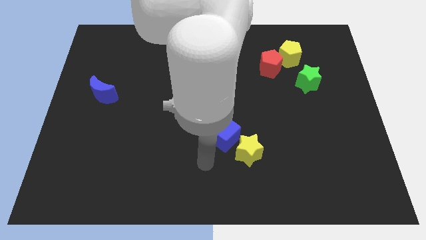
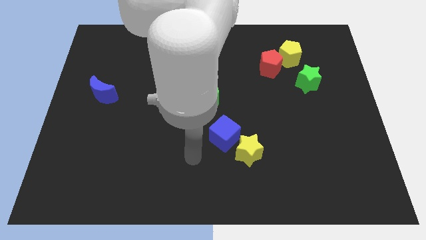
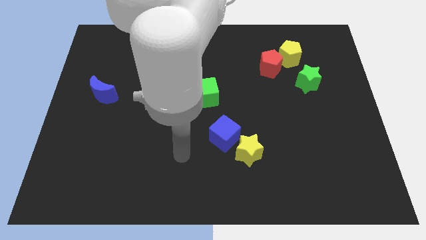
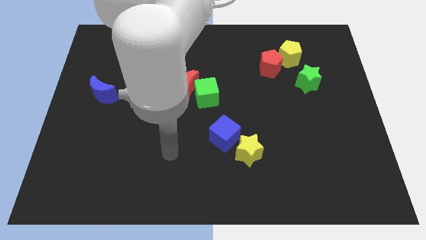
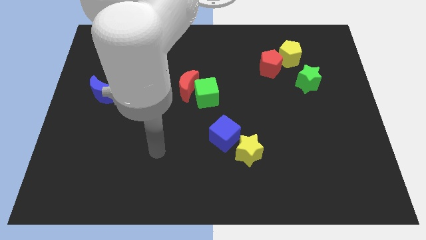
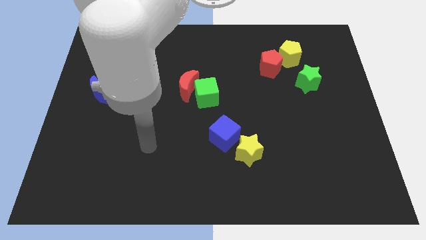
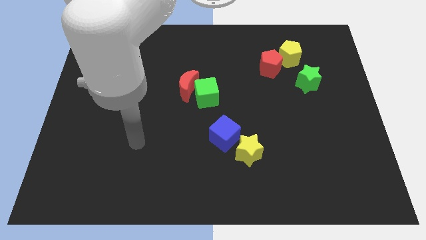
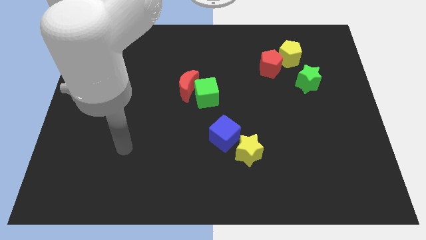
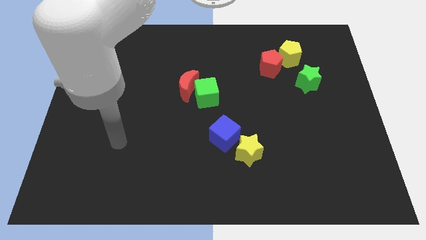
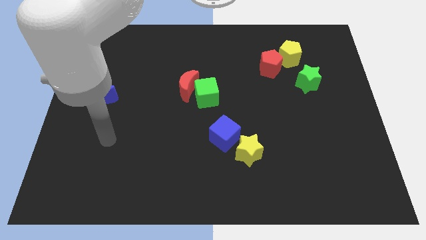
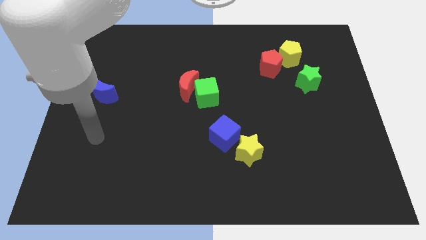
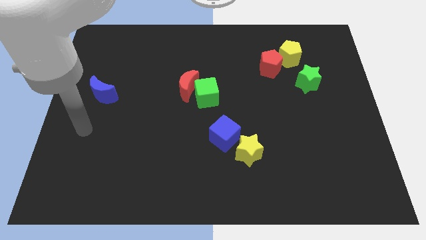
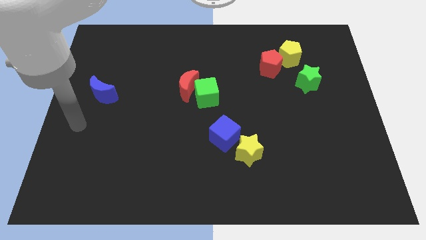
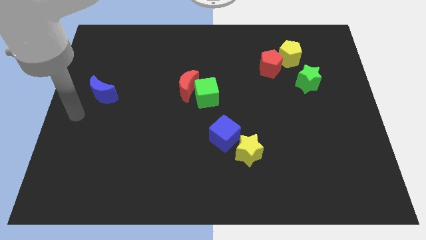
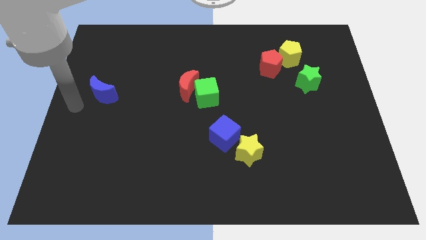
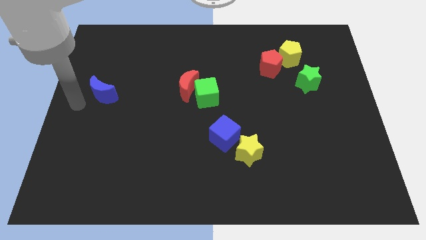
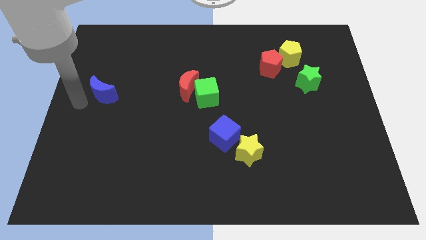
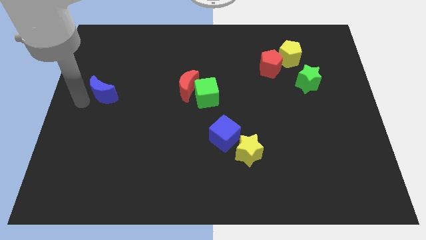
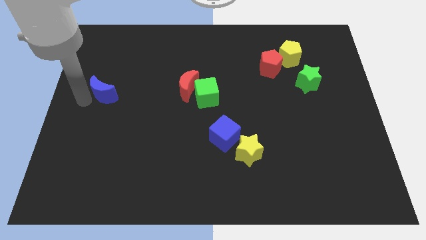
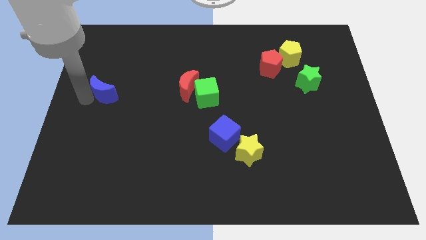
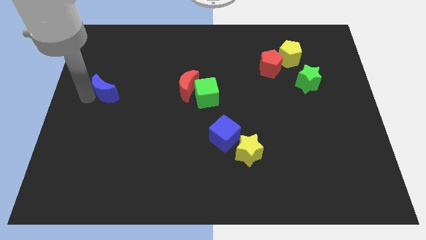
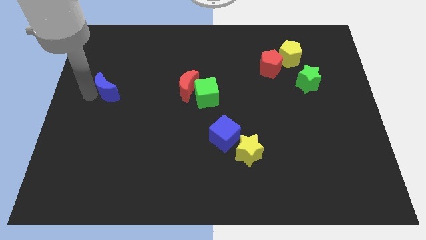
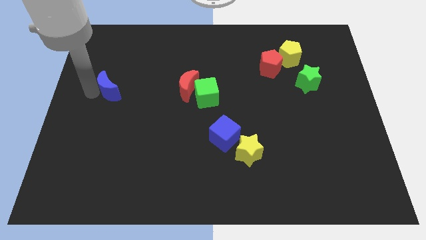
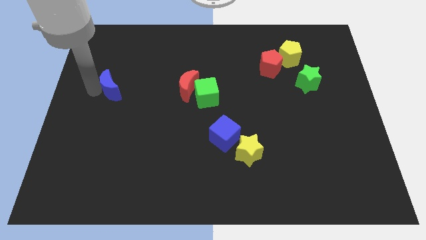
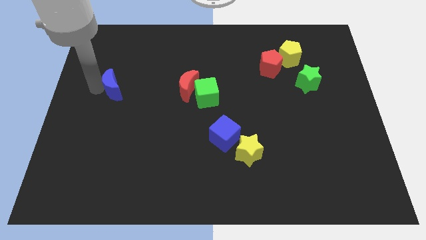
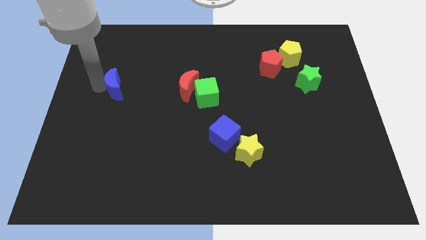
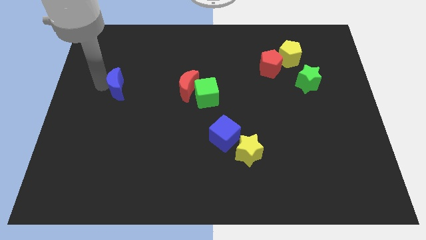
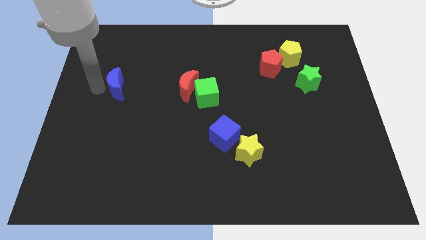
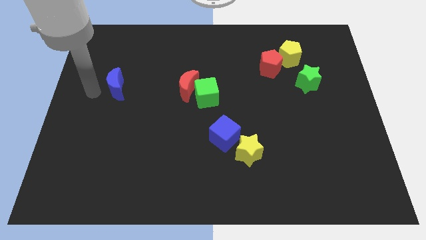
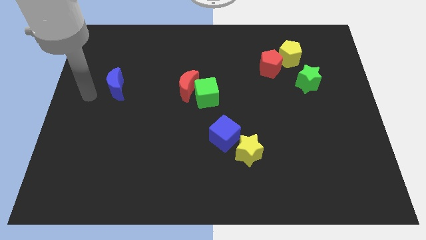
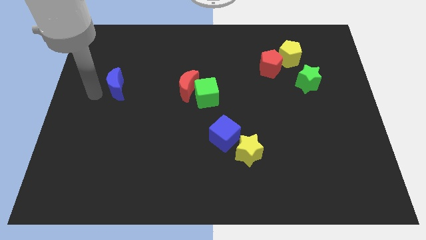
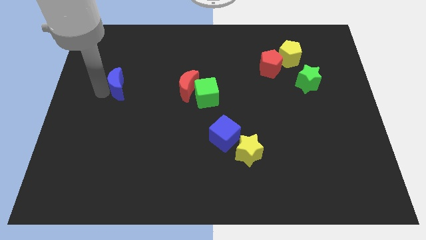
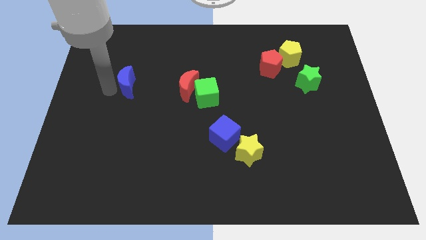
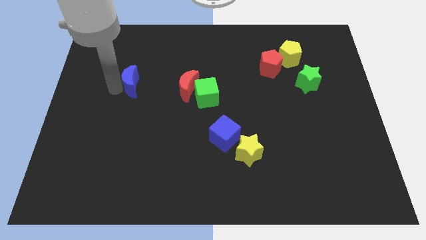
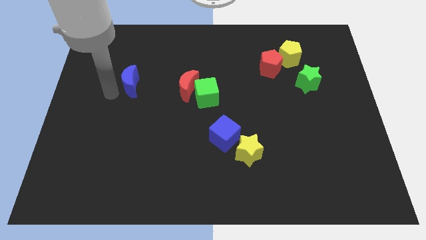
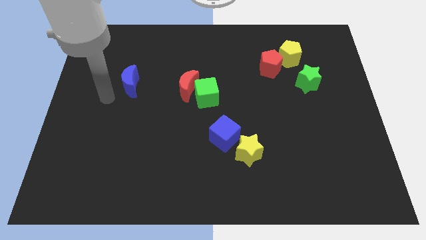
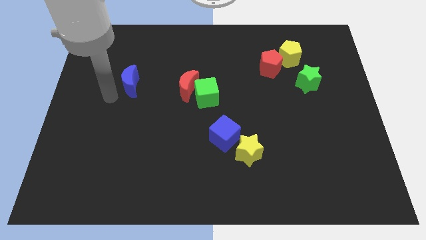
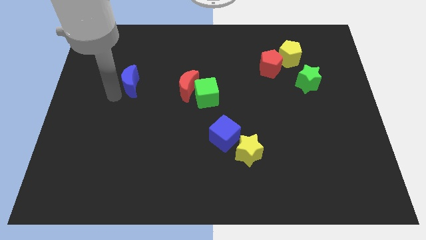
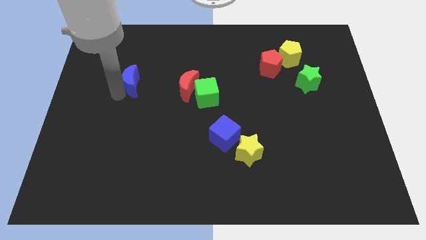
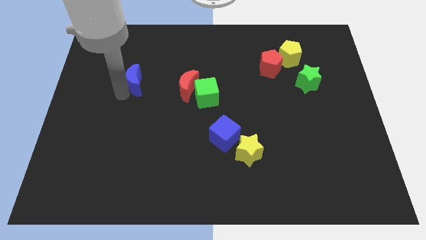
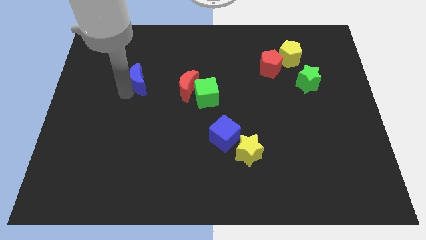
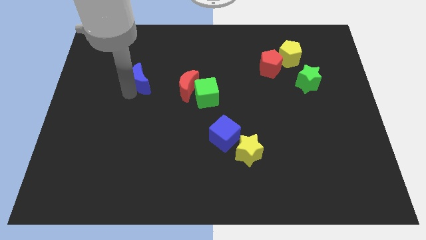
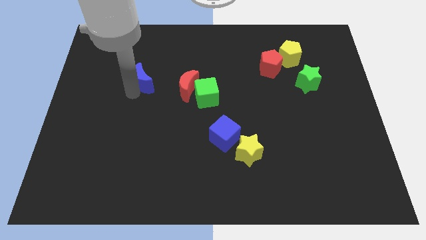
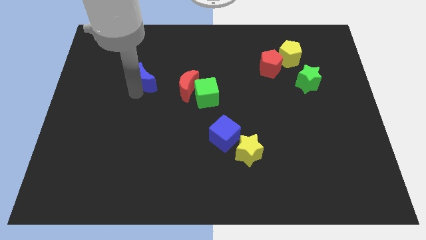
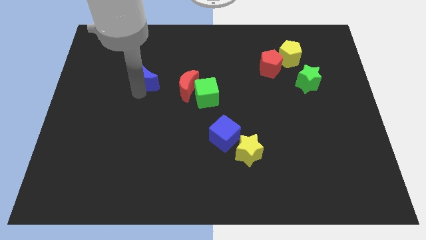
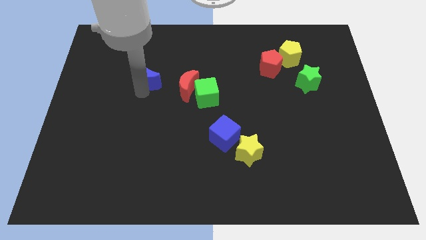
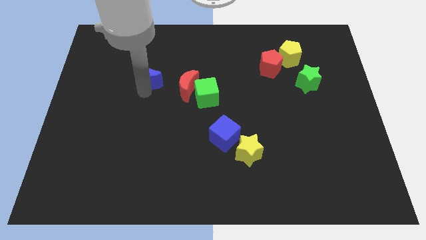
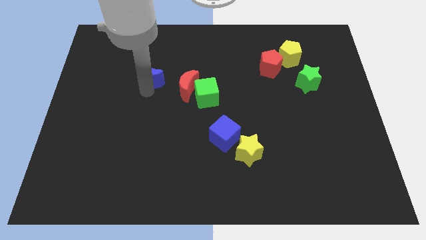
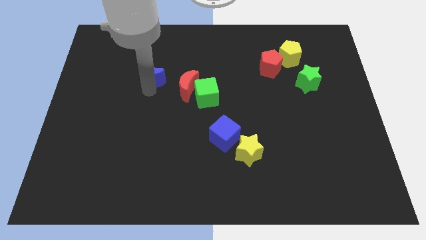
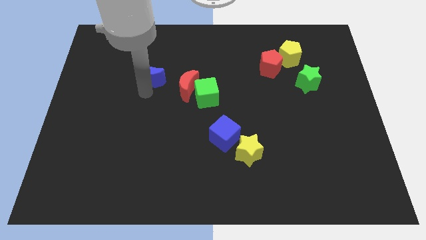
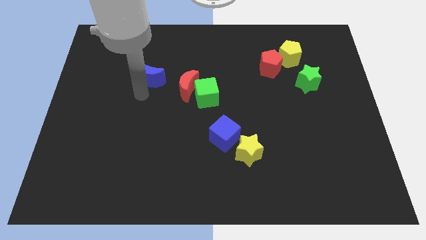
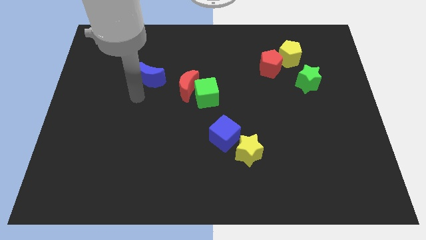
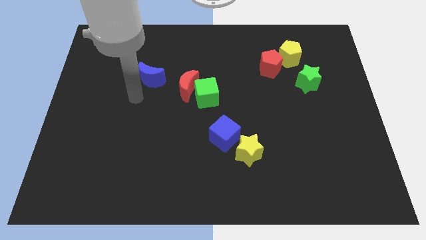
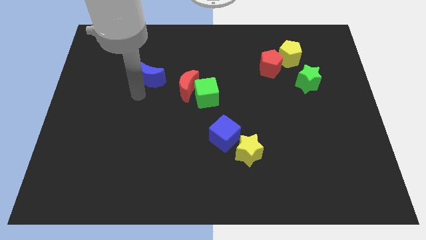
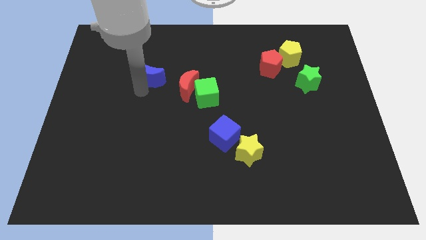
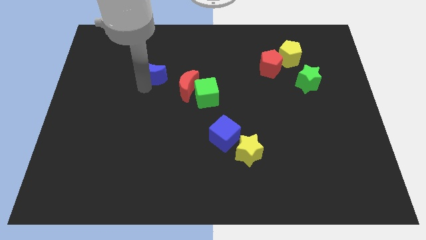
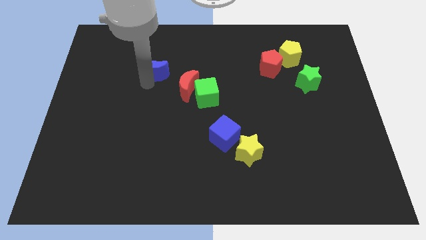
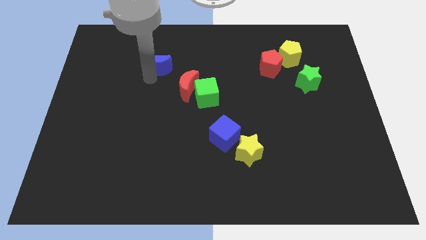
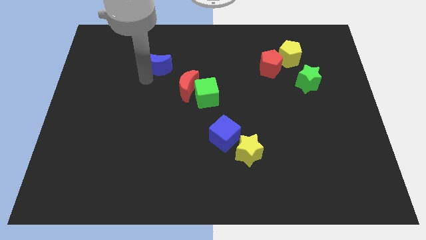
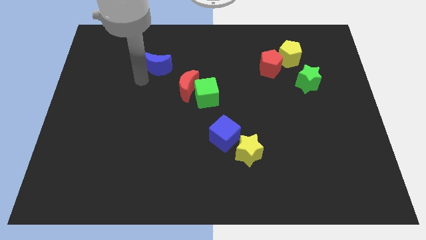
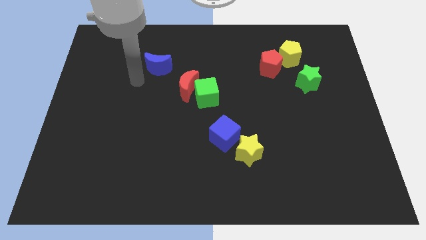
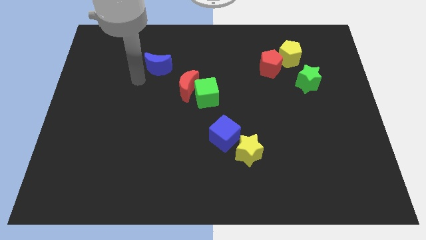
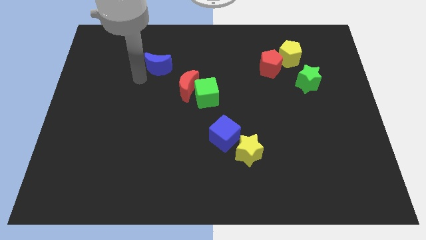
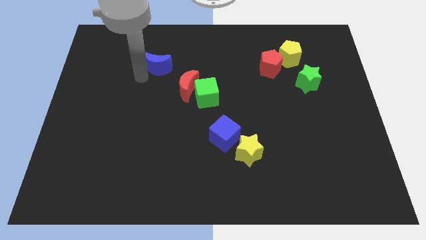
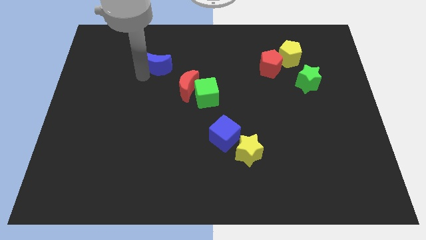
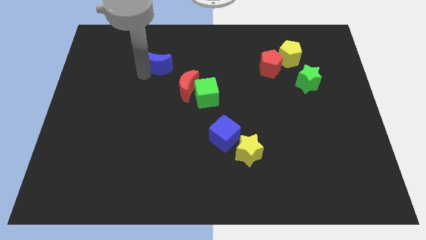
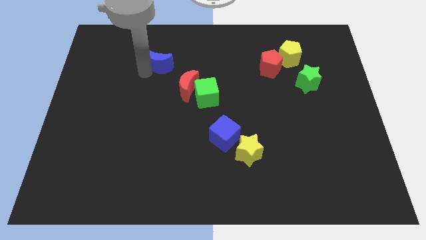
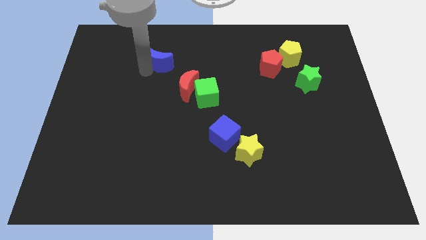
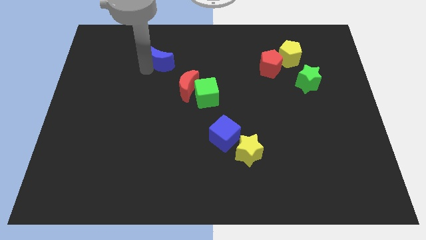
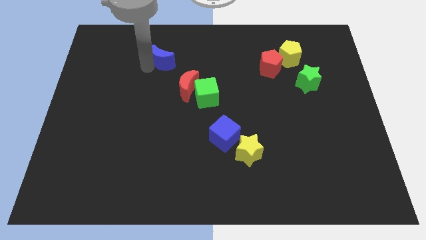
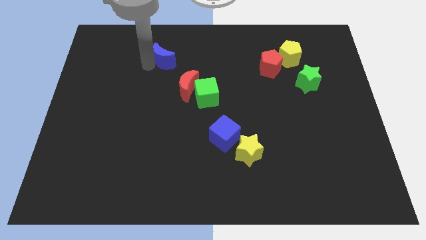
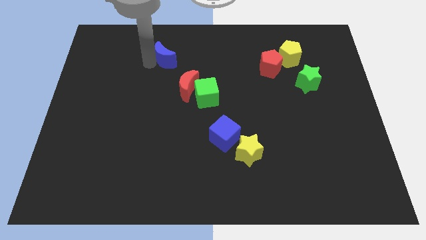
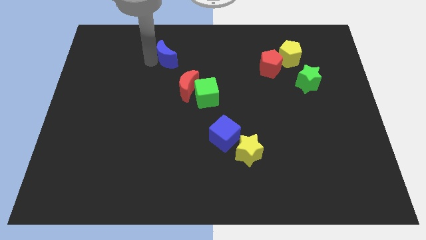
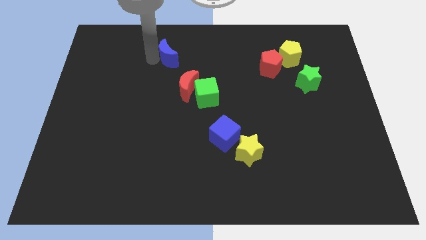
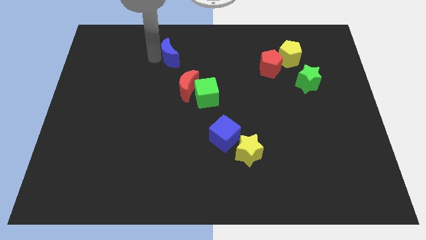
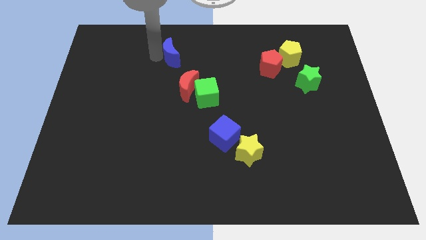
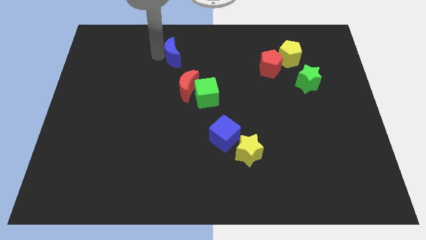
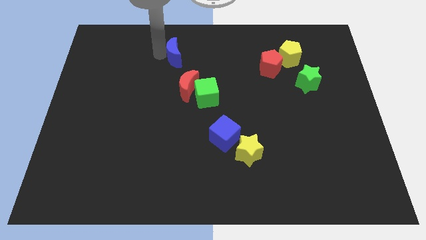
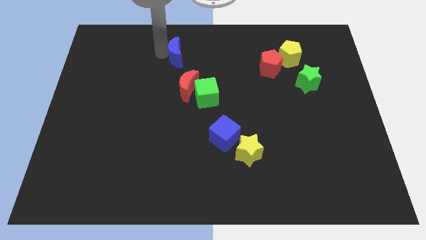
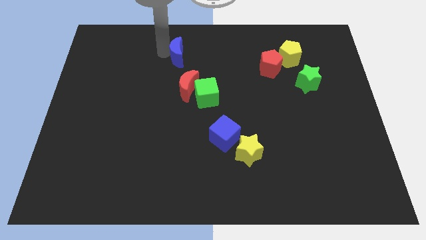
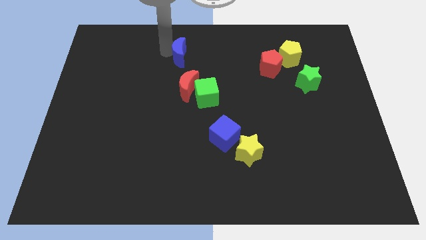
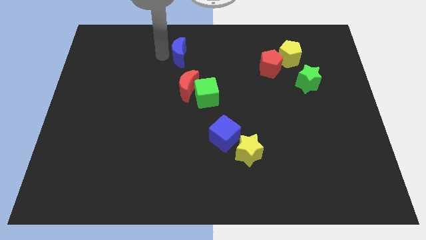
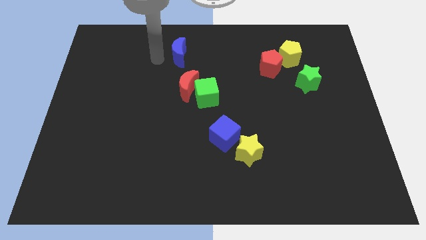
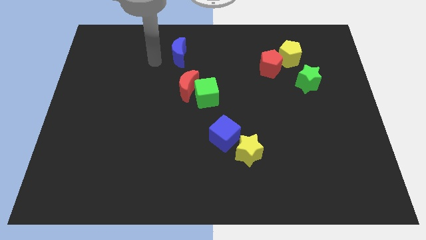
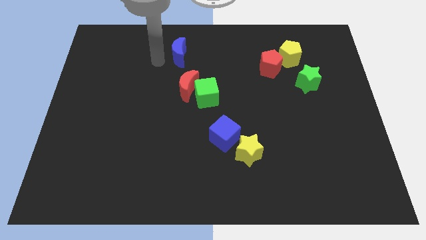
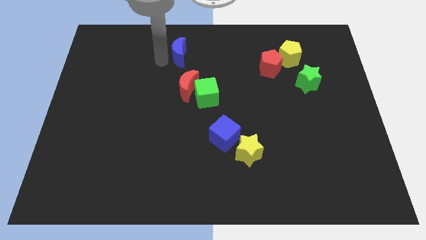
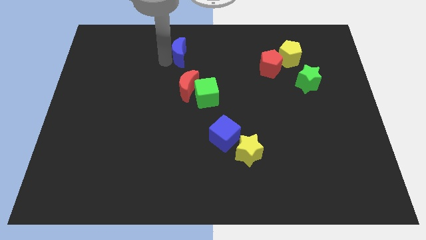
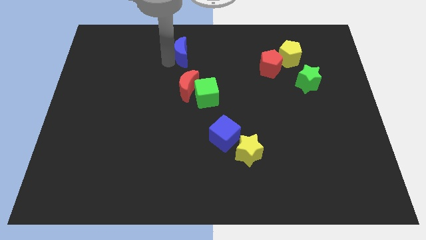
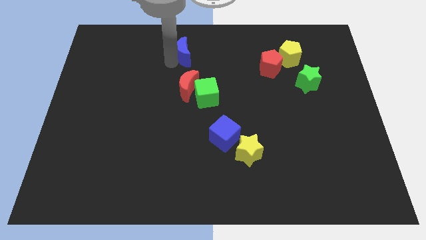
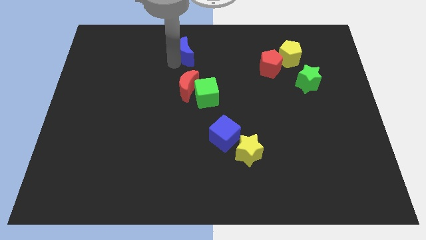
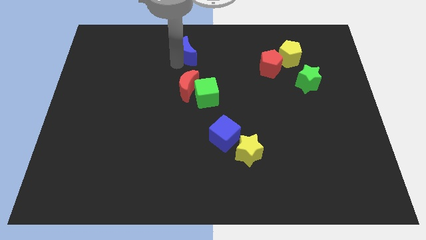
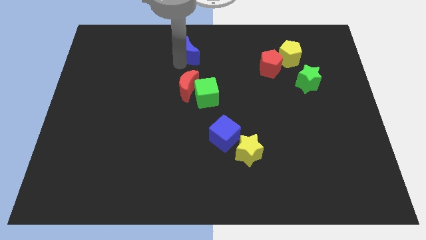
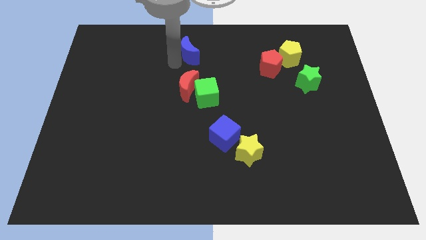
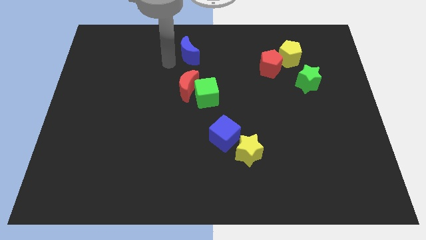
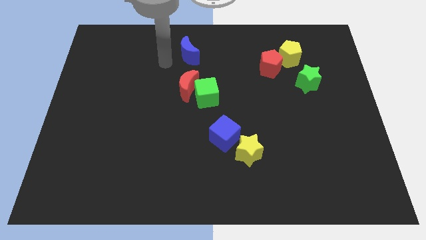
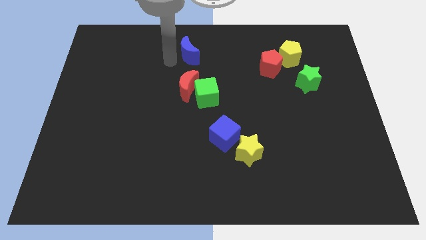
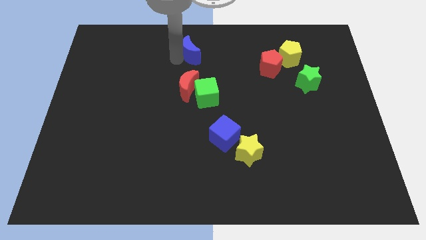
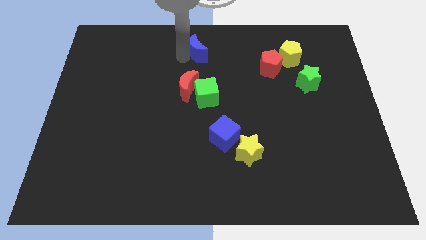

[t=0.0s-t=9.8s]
slide the blue moon to the top
